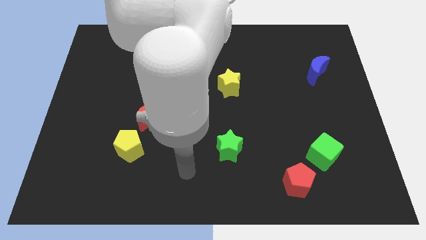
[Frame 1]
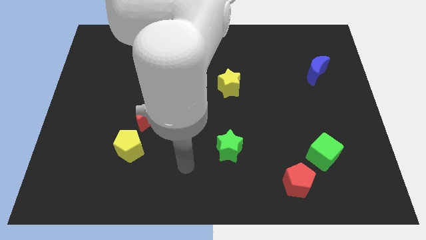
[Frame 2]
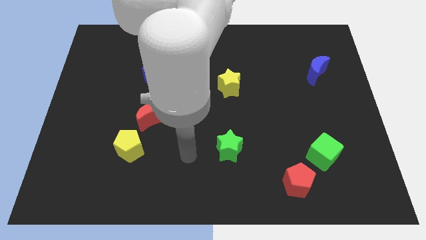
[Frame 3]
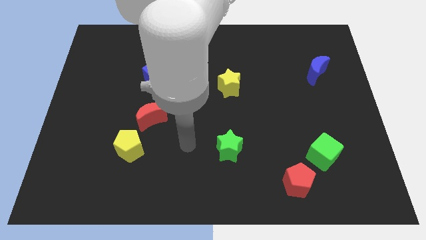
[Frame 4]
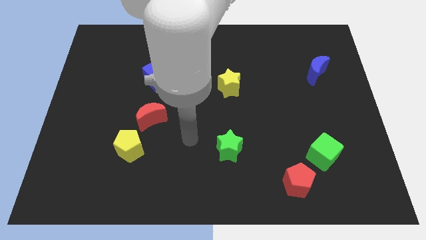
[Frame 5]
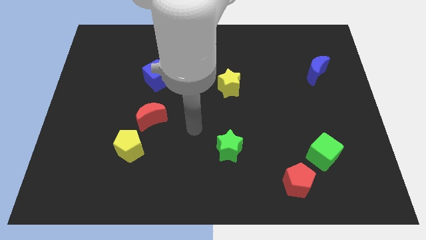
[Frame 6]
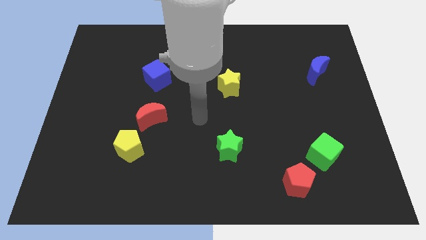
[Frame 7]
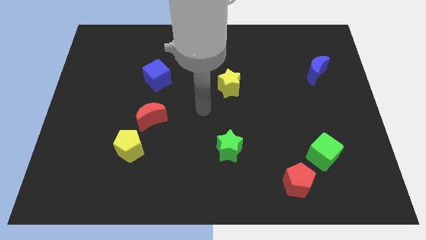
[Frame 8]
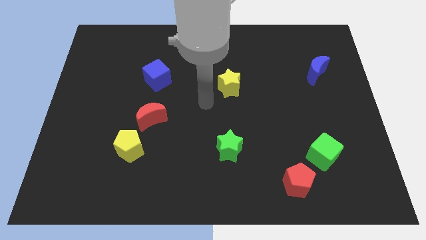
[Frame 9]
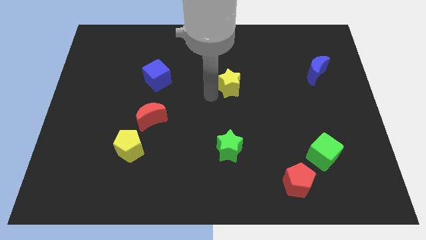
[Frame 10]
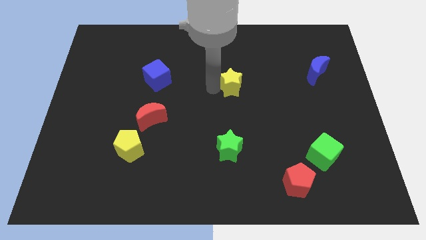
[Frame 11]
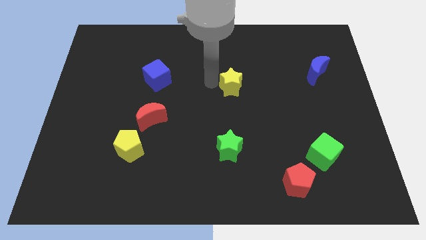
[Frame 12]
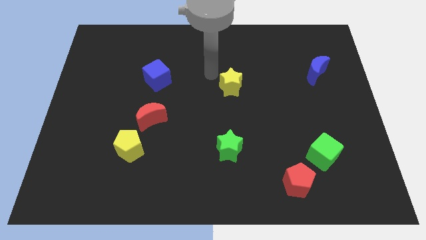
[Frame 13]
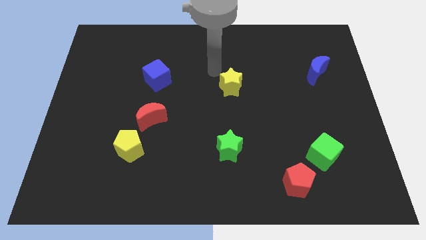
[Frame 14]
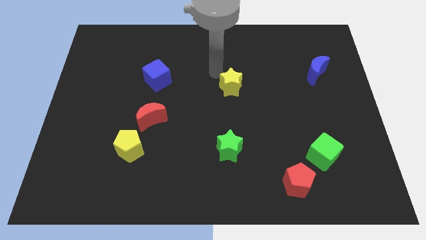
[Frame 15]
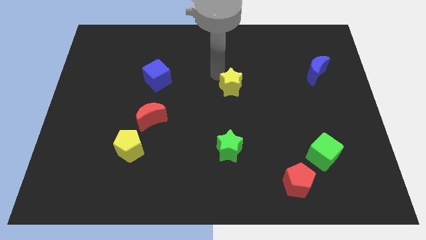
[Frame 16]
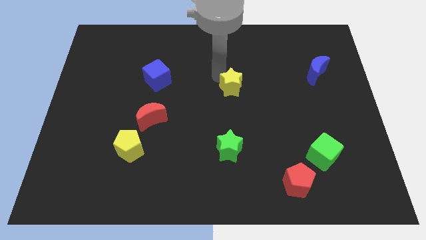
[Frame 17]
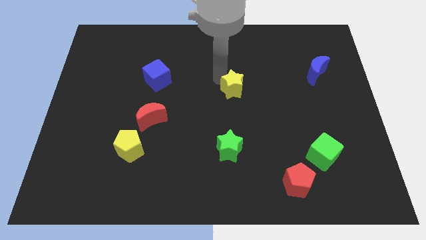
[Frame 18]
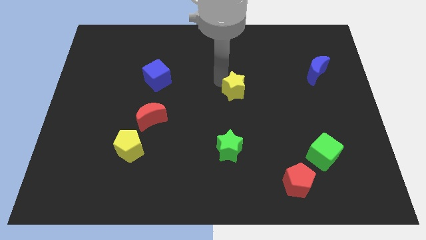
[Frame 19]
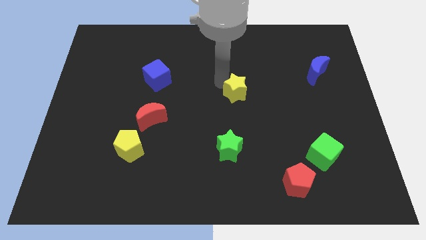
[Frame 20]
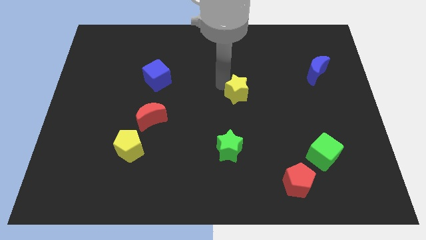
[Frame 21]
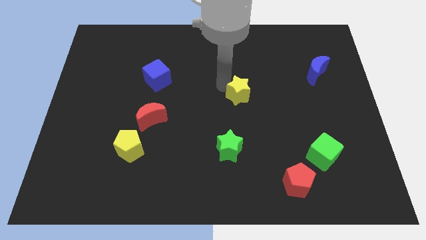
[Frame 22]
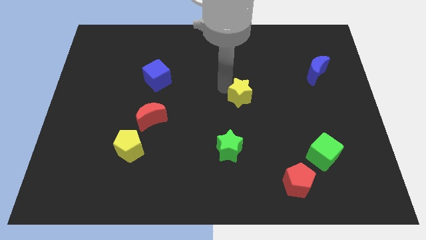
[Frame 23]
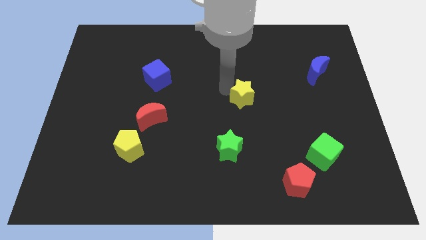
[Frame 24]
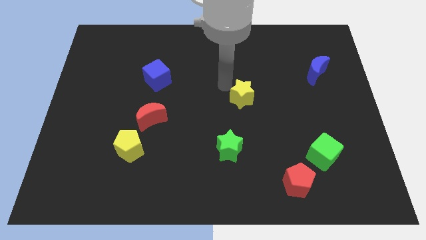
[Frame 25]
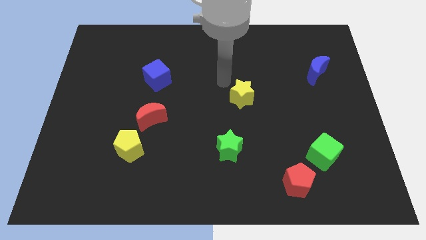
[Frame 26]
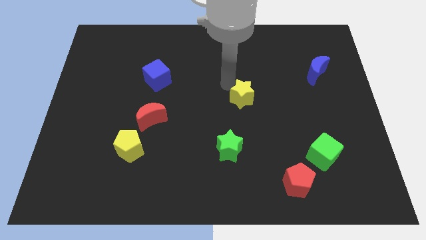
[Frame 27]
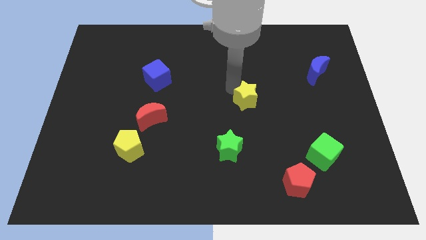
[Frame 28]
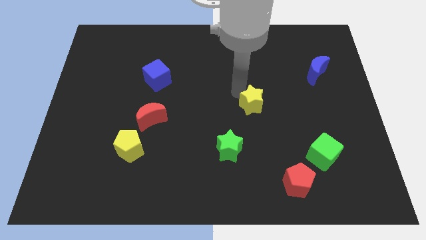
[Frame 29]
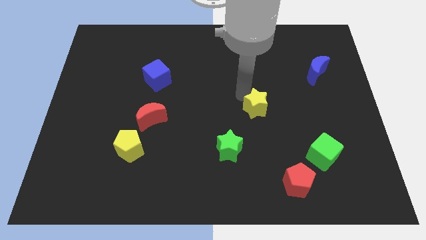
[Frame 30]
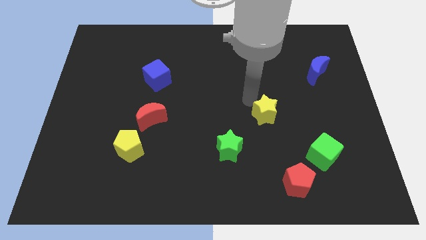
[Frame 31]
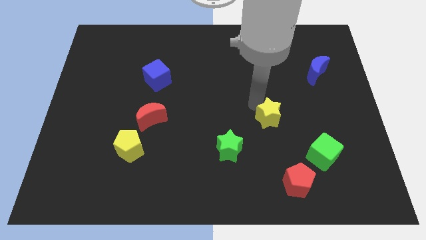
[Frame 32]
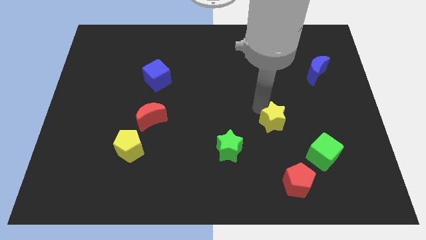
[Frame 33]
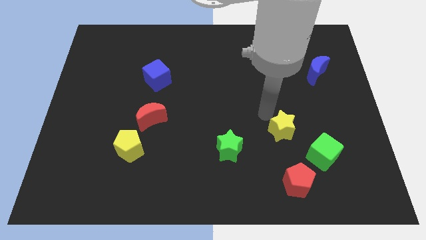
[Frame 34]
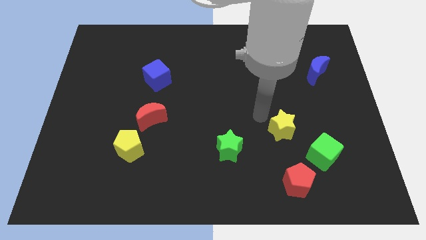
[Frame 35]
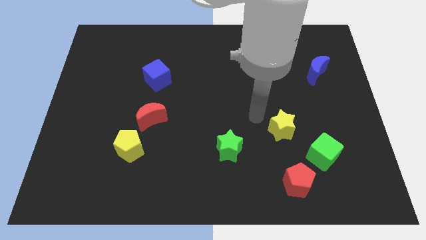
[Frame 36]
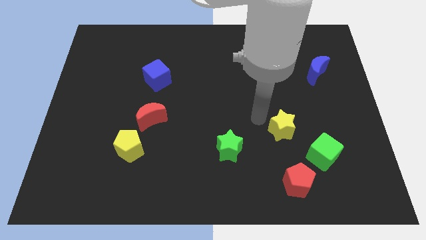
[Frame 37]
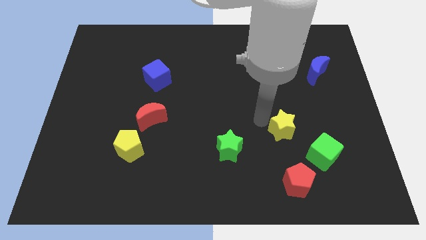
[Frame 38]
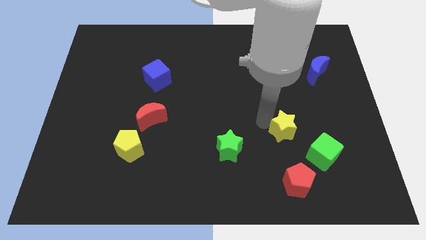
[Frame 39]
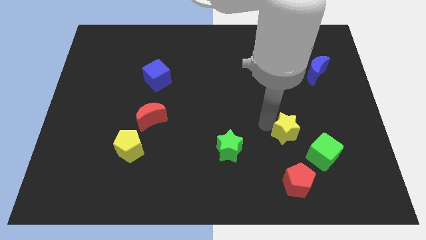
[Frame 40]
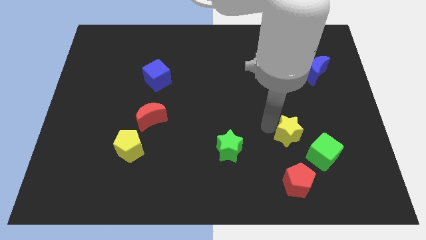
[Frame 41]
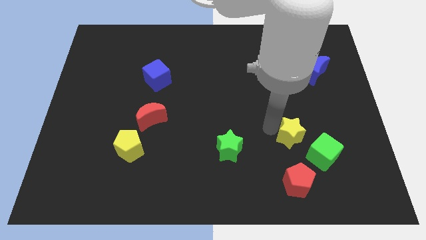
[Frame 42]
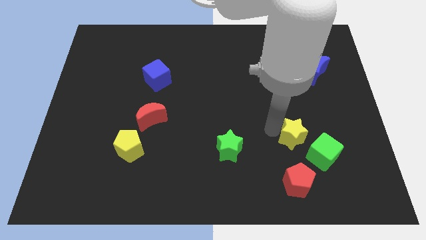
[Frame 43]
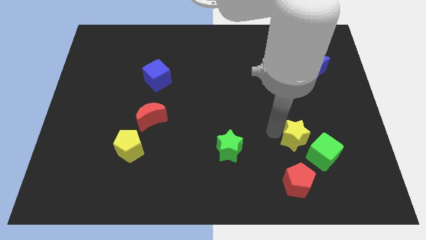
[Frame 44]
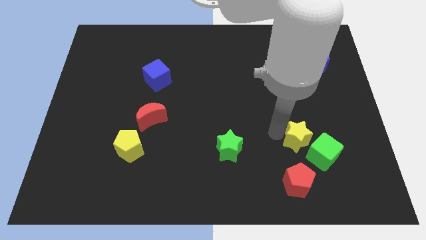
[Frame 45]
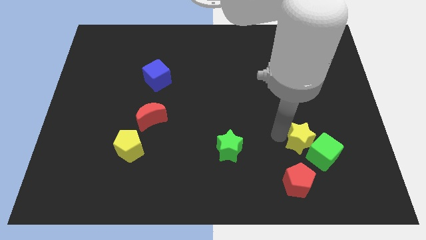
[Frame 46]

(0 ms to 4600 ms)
put the yellow star next to the green cube

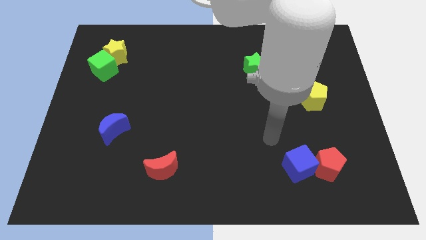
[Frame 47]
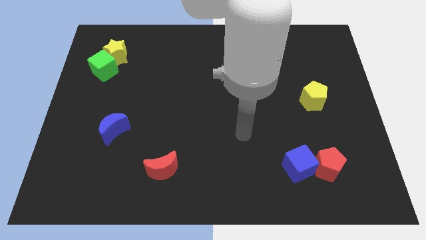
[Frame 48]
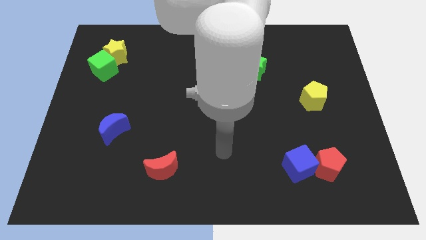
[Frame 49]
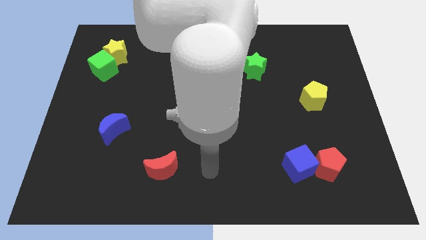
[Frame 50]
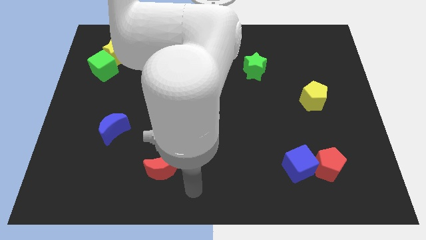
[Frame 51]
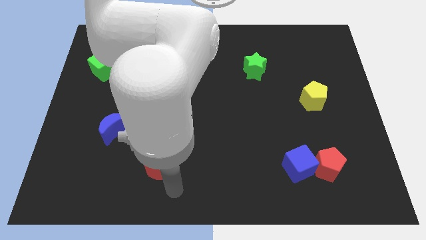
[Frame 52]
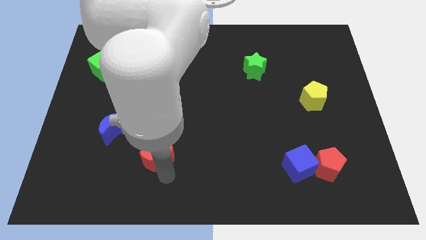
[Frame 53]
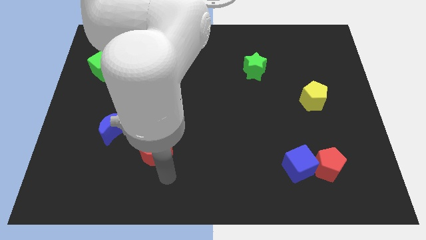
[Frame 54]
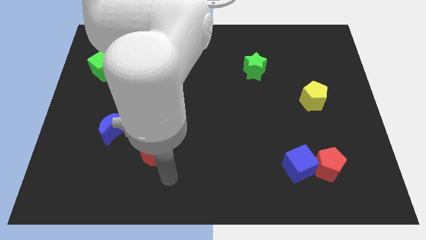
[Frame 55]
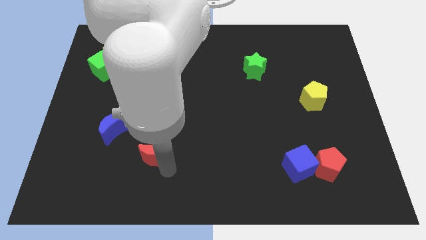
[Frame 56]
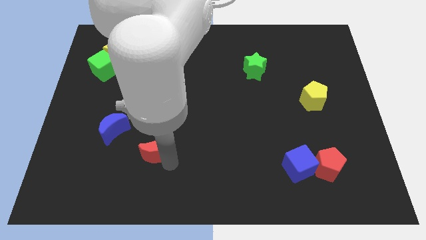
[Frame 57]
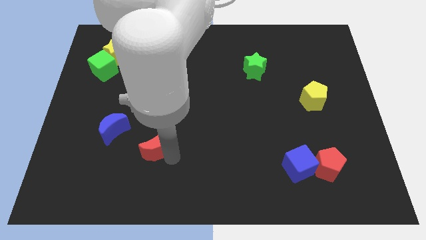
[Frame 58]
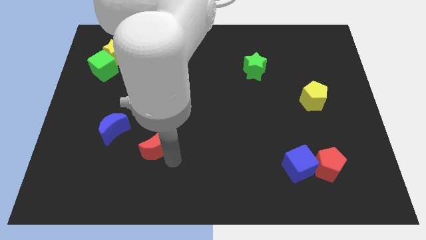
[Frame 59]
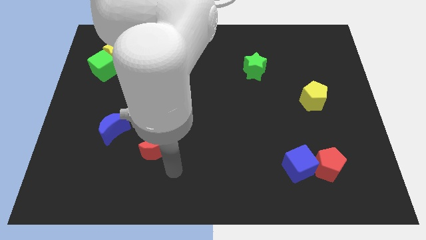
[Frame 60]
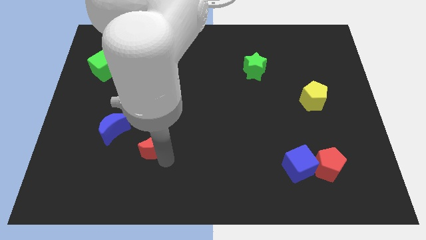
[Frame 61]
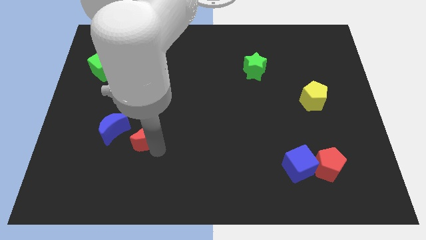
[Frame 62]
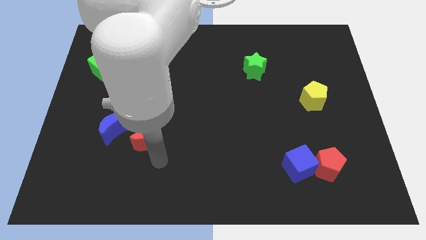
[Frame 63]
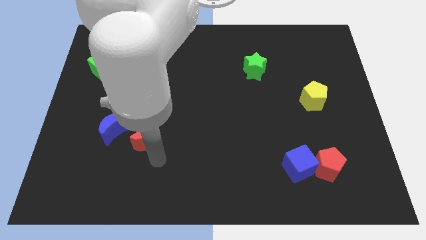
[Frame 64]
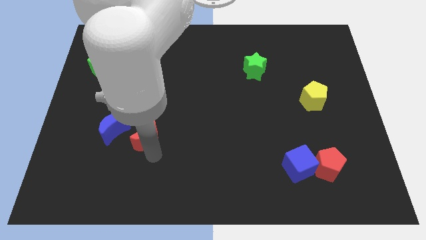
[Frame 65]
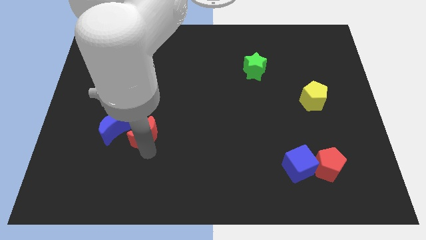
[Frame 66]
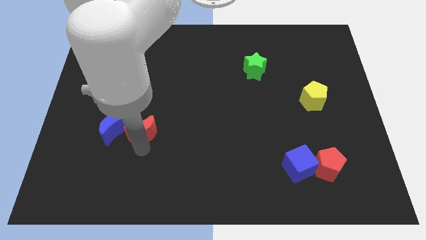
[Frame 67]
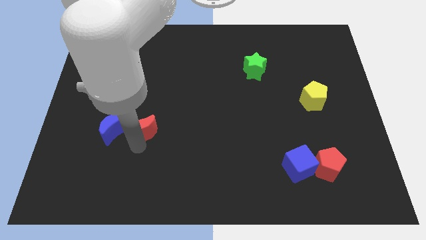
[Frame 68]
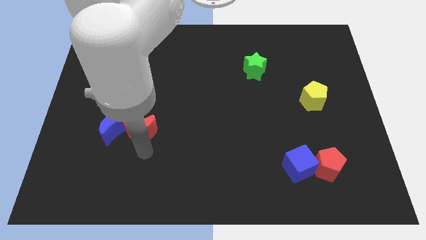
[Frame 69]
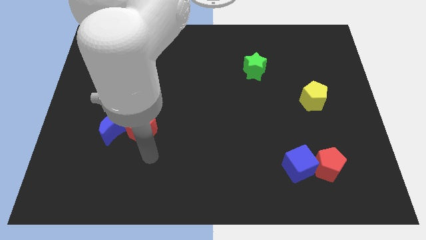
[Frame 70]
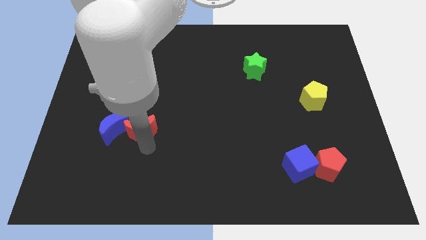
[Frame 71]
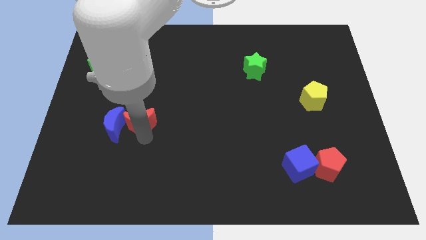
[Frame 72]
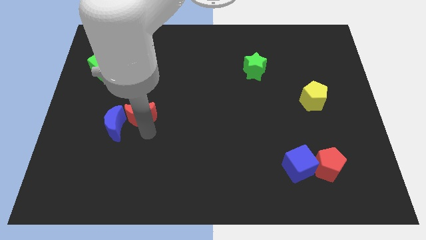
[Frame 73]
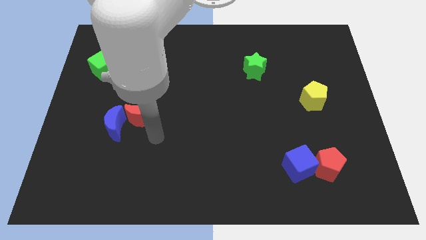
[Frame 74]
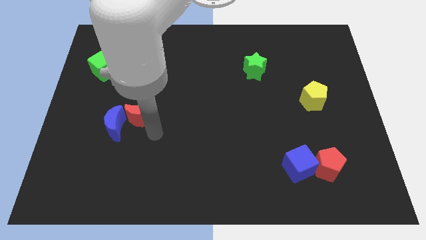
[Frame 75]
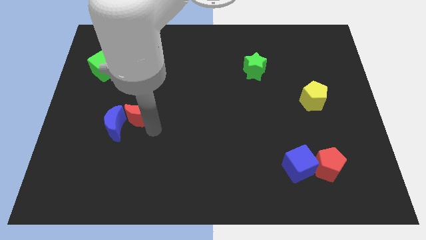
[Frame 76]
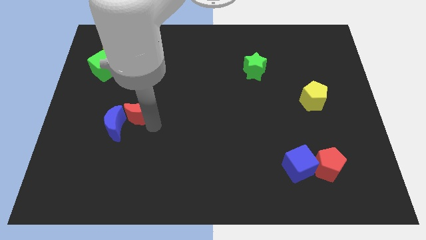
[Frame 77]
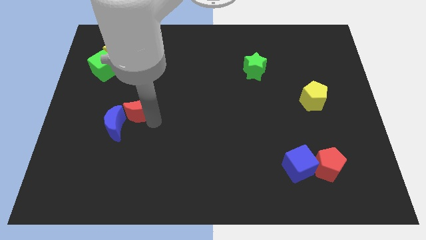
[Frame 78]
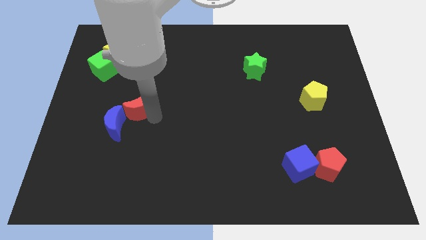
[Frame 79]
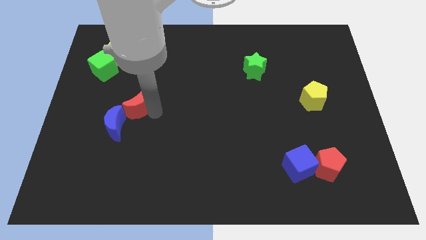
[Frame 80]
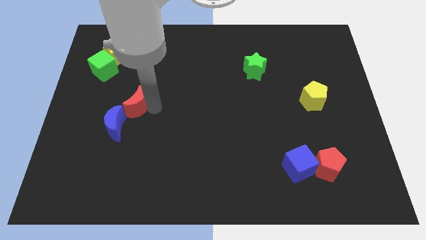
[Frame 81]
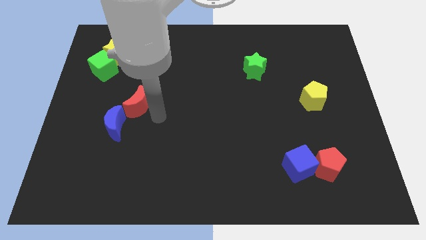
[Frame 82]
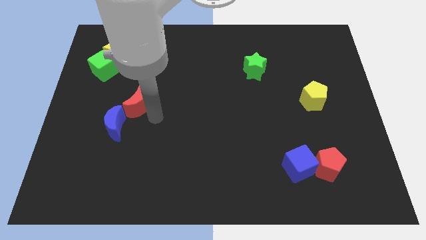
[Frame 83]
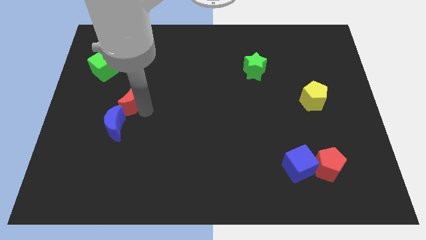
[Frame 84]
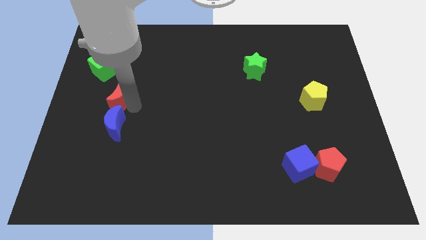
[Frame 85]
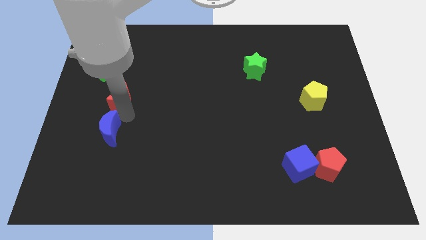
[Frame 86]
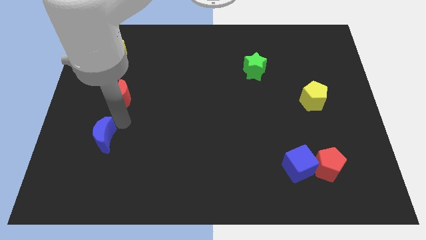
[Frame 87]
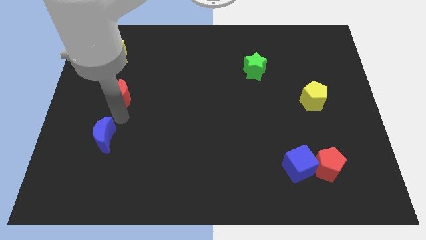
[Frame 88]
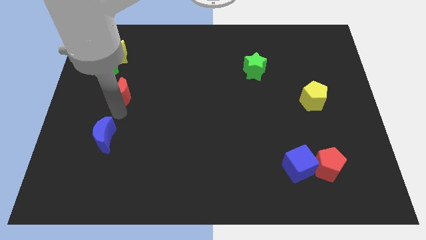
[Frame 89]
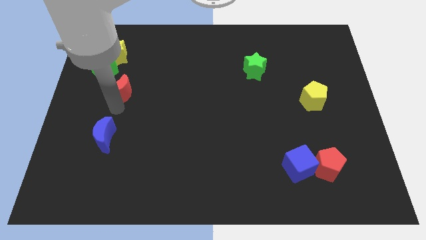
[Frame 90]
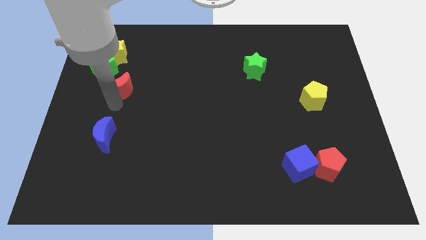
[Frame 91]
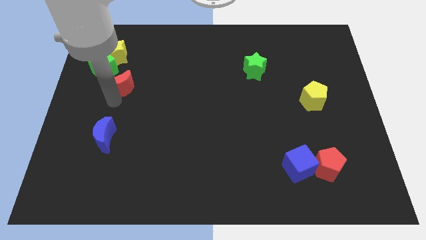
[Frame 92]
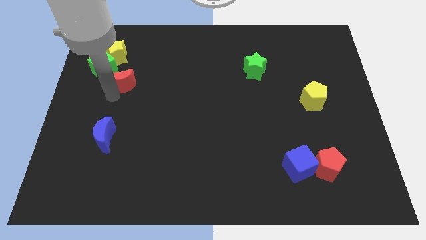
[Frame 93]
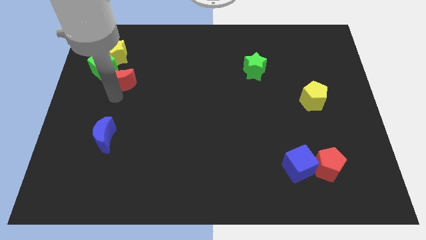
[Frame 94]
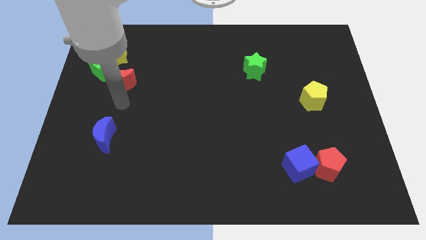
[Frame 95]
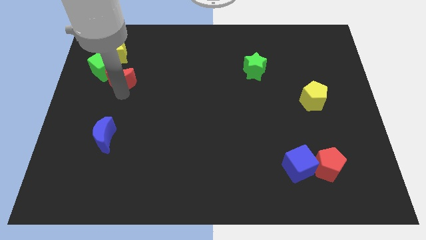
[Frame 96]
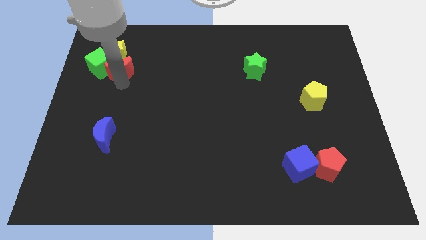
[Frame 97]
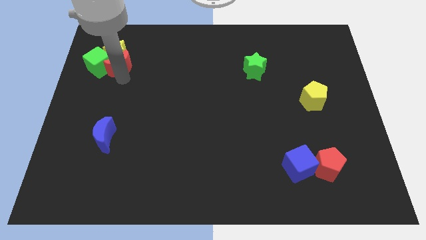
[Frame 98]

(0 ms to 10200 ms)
move the red moon next to the yellow star
